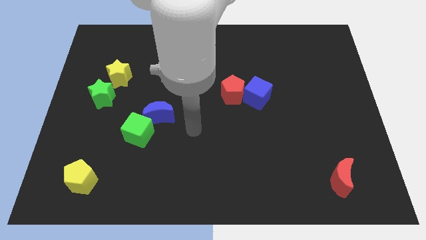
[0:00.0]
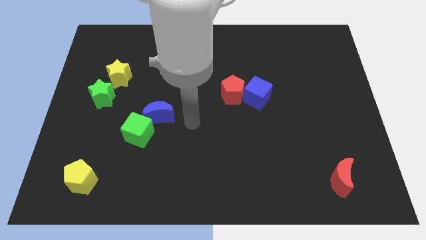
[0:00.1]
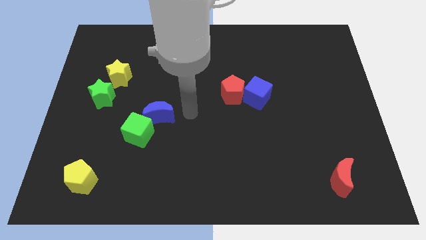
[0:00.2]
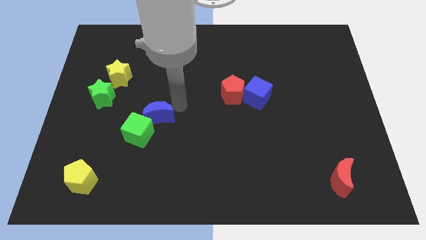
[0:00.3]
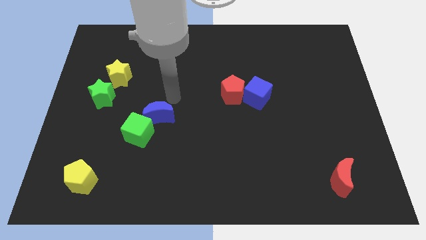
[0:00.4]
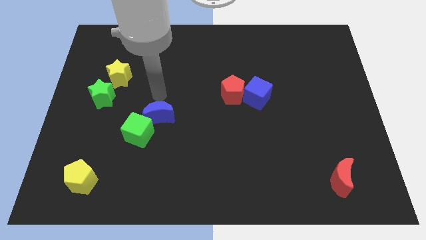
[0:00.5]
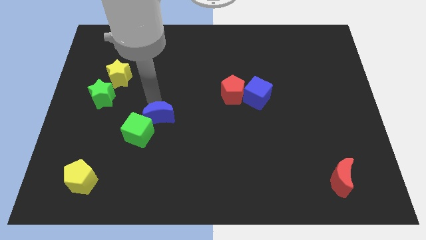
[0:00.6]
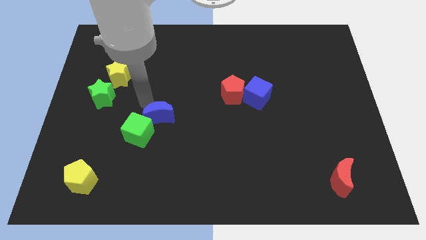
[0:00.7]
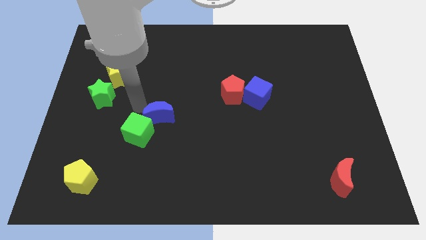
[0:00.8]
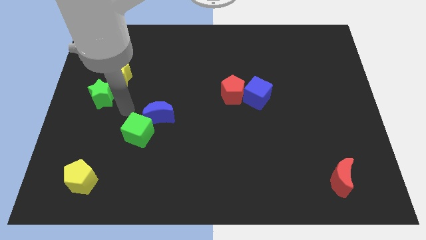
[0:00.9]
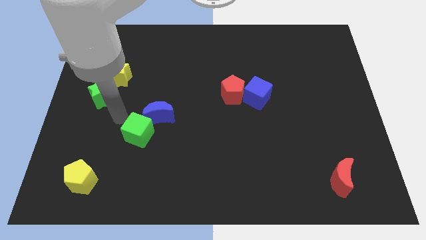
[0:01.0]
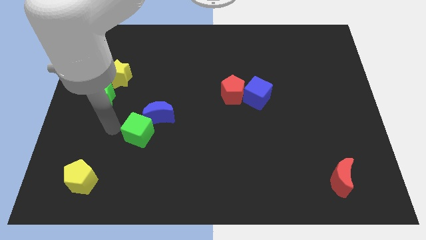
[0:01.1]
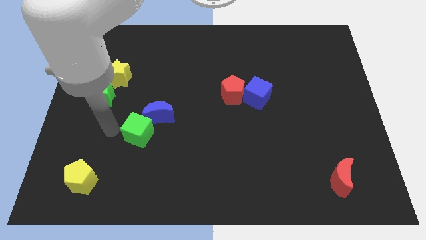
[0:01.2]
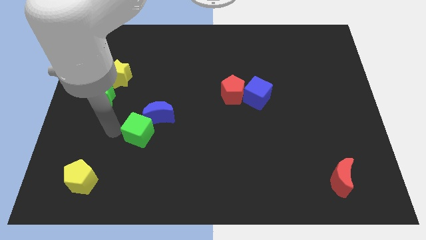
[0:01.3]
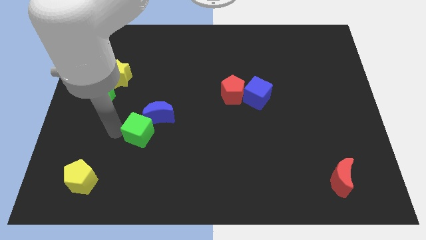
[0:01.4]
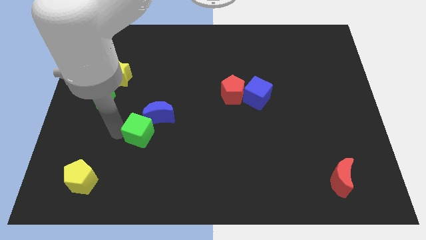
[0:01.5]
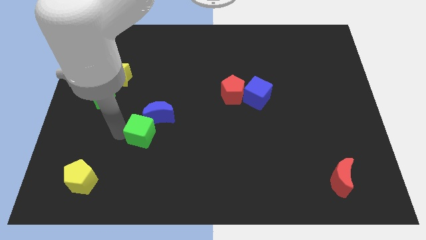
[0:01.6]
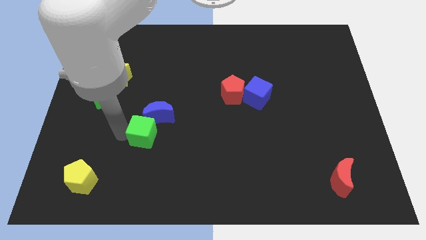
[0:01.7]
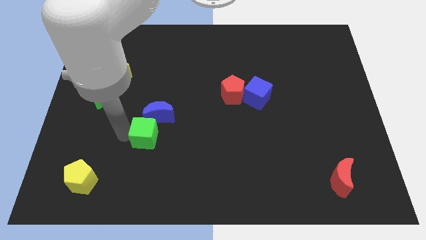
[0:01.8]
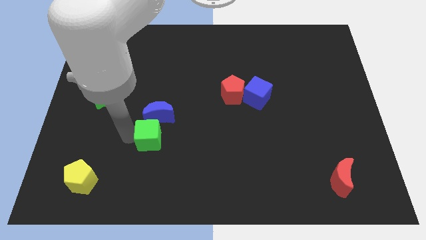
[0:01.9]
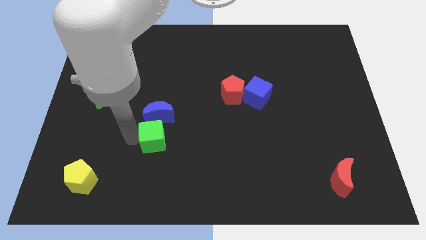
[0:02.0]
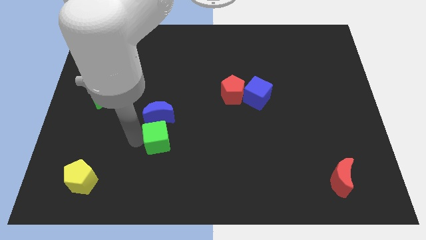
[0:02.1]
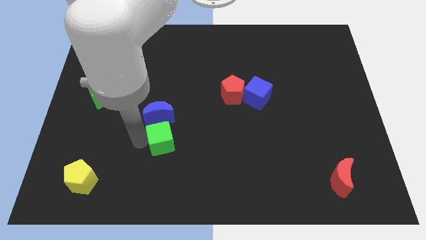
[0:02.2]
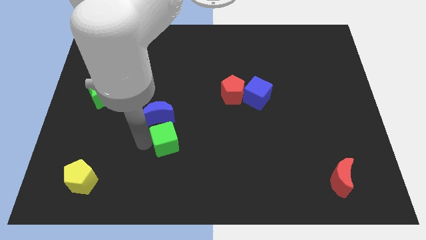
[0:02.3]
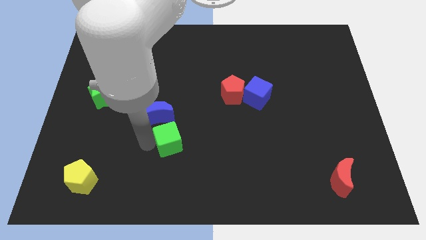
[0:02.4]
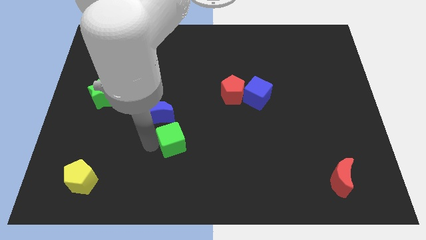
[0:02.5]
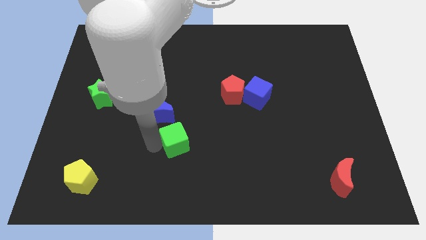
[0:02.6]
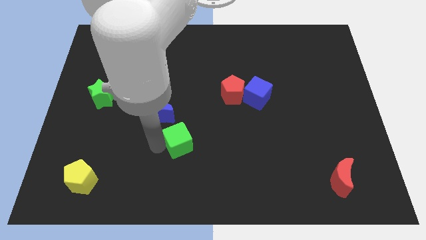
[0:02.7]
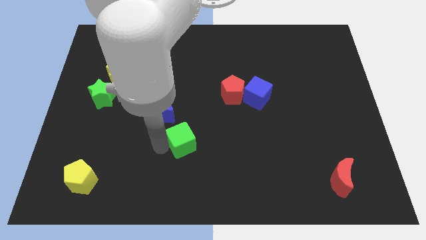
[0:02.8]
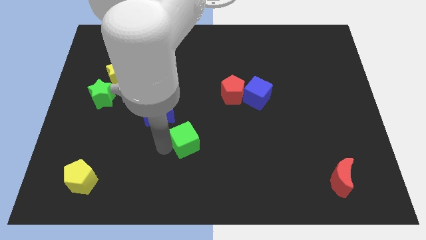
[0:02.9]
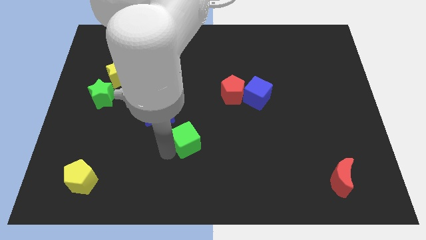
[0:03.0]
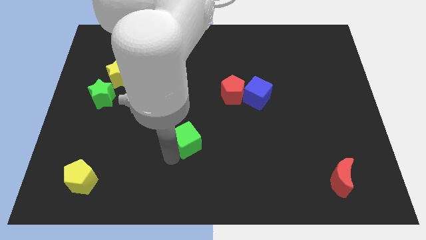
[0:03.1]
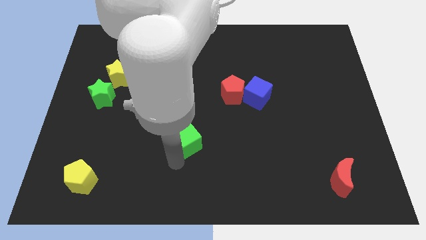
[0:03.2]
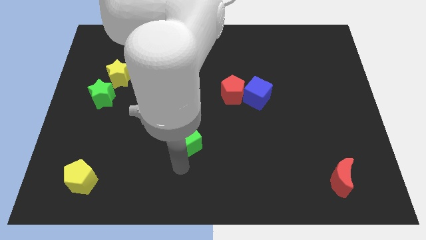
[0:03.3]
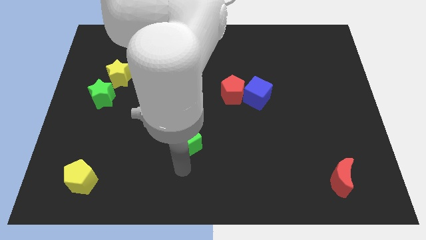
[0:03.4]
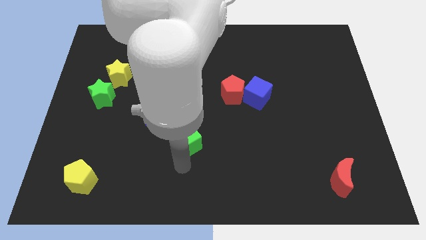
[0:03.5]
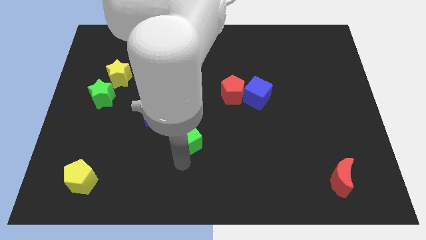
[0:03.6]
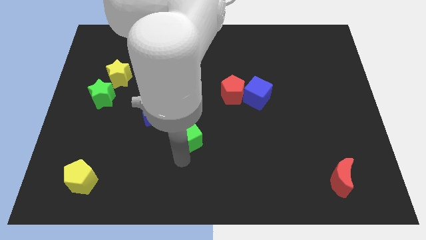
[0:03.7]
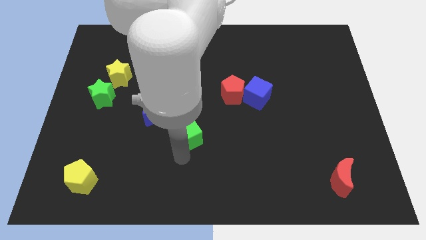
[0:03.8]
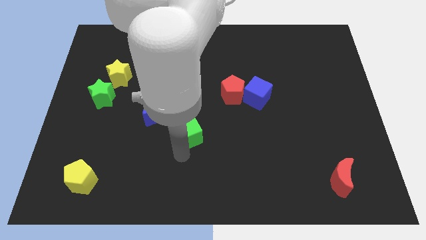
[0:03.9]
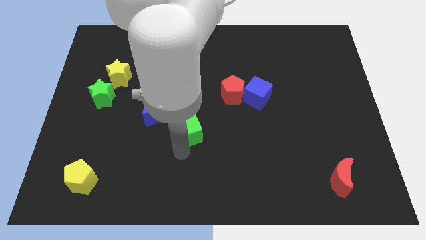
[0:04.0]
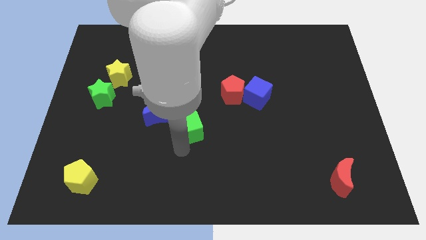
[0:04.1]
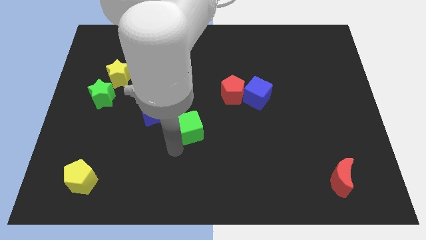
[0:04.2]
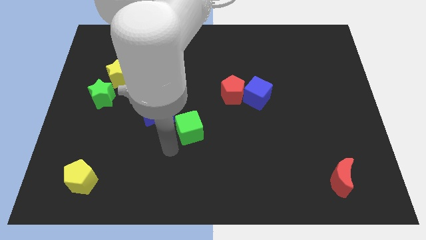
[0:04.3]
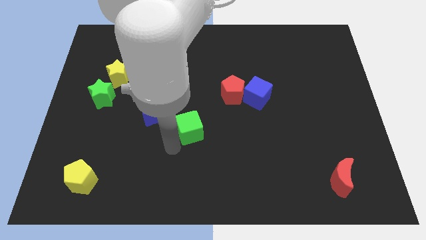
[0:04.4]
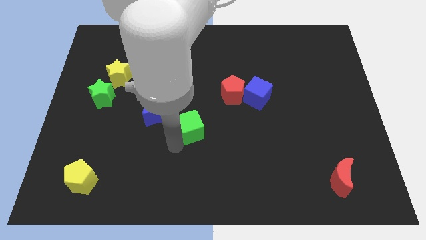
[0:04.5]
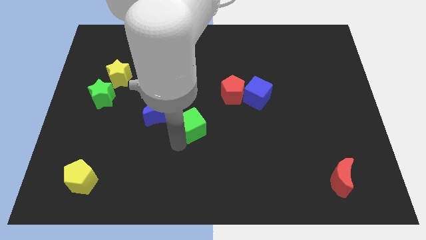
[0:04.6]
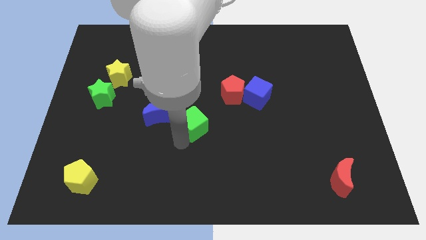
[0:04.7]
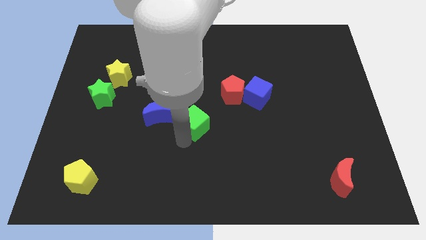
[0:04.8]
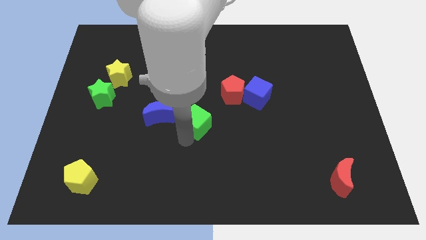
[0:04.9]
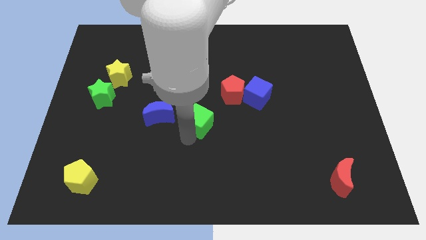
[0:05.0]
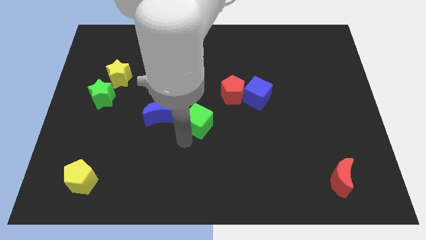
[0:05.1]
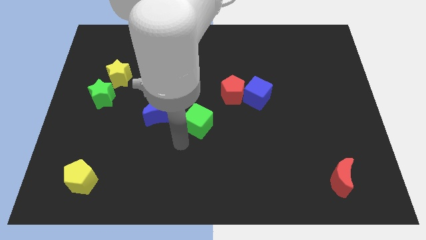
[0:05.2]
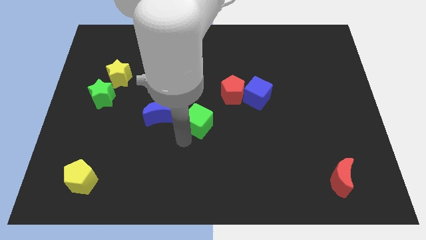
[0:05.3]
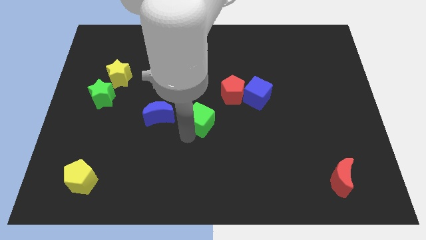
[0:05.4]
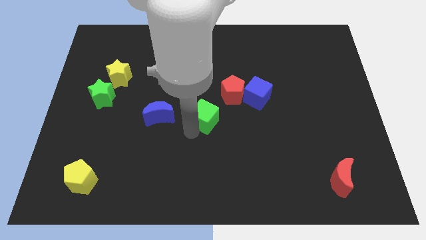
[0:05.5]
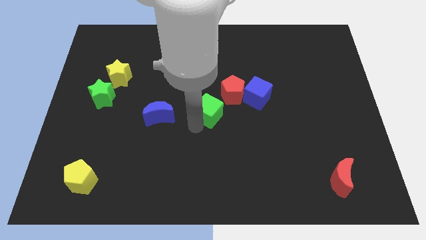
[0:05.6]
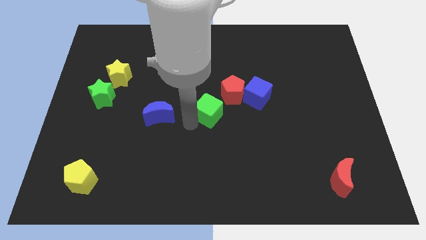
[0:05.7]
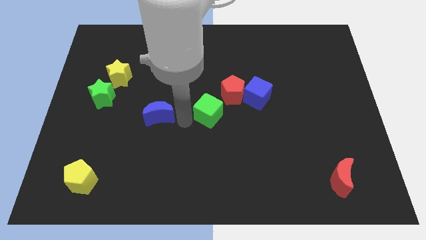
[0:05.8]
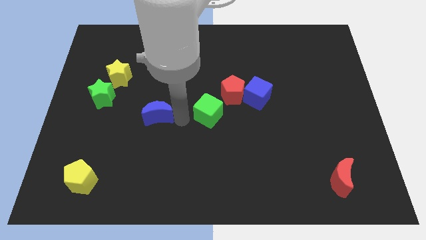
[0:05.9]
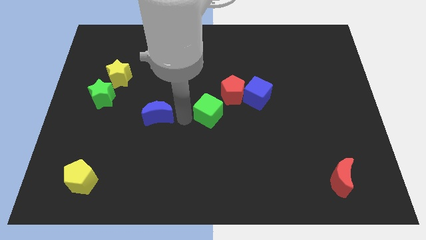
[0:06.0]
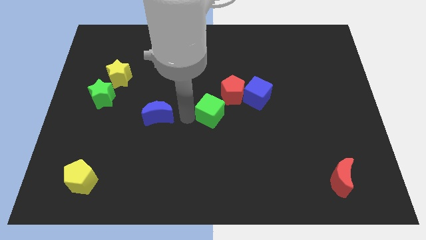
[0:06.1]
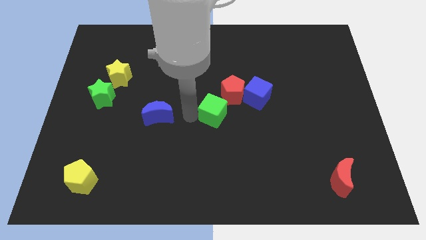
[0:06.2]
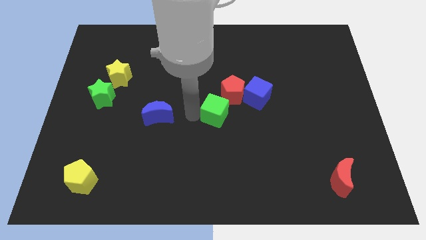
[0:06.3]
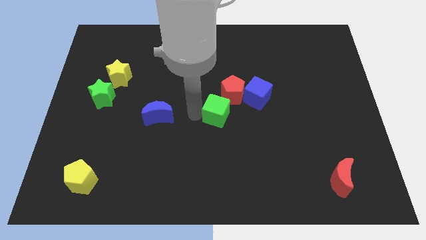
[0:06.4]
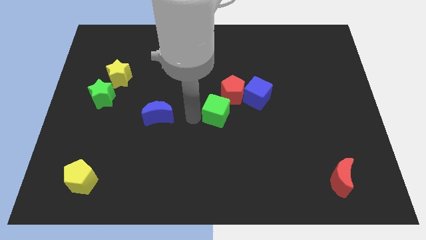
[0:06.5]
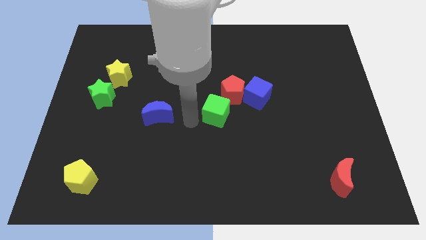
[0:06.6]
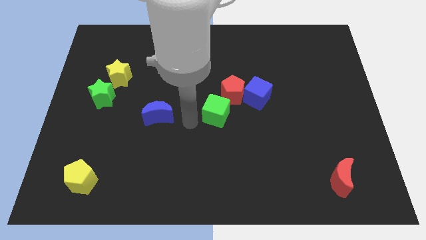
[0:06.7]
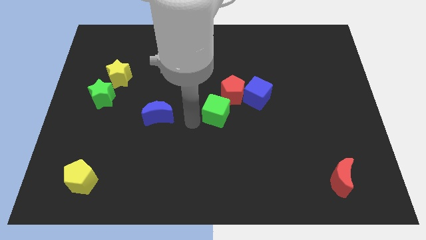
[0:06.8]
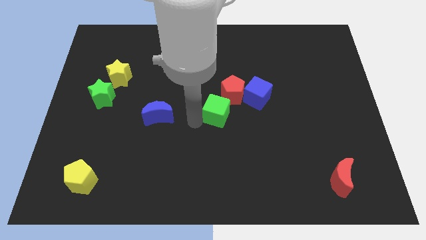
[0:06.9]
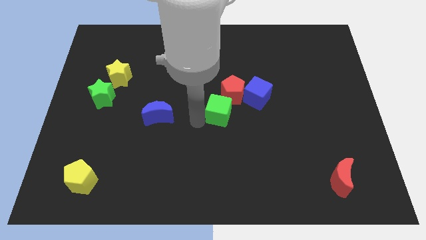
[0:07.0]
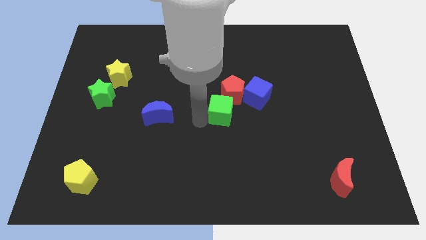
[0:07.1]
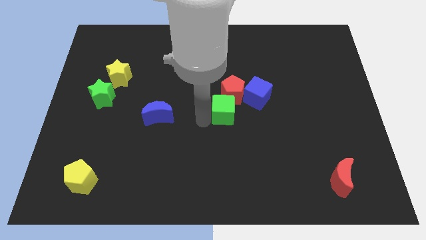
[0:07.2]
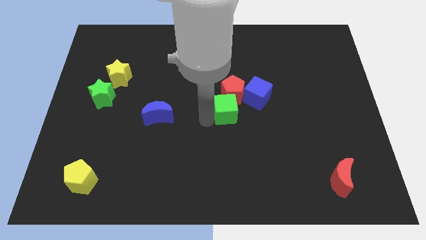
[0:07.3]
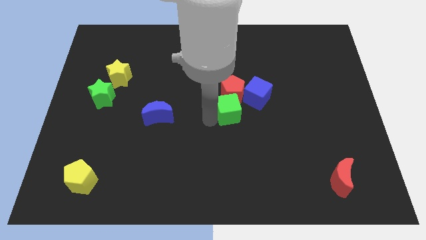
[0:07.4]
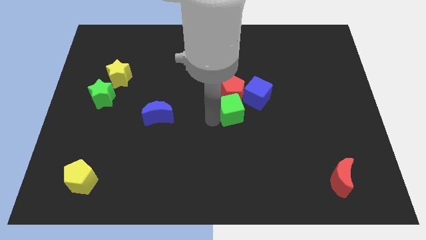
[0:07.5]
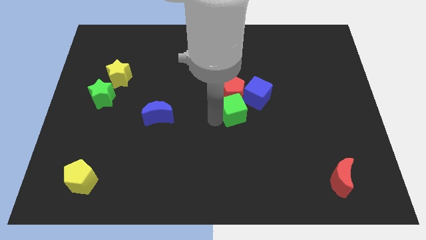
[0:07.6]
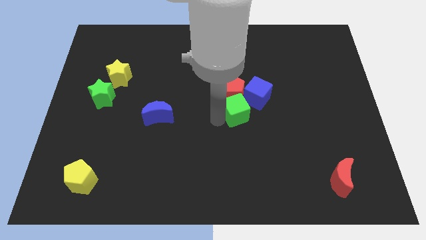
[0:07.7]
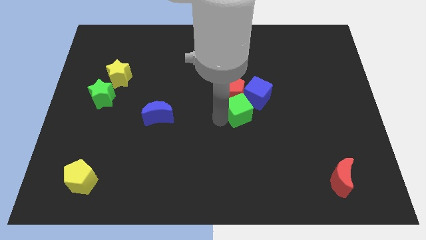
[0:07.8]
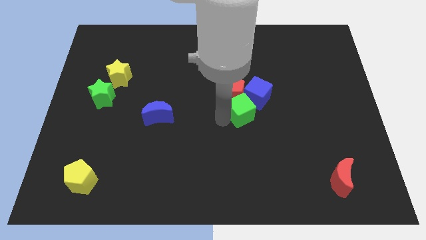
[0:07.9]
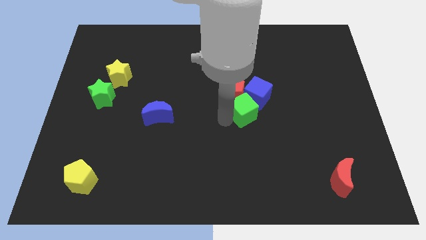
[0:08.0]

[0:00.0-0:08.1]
slide the green cube next to the blue cube
